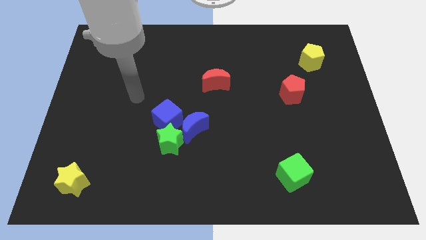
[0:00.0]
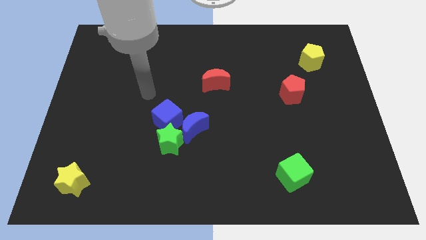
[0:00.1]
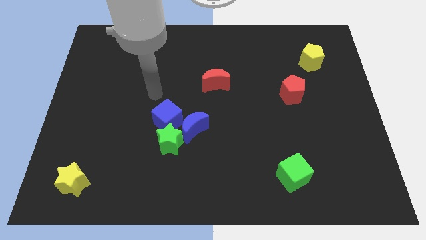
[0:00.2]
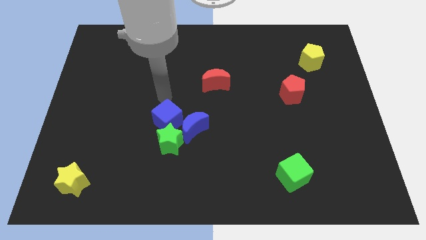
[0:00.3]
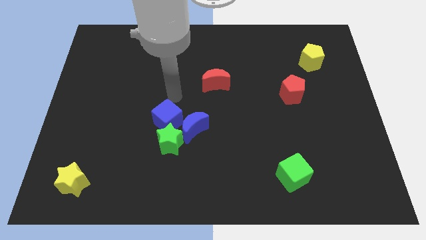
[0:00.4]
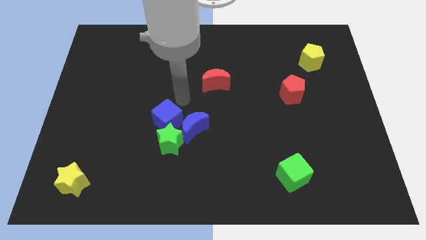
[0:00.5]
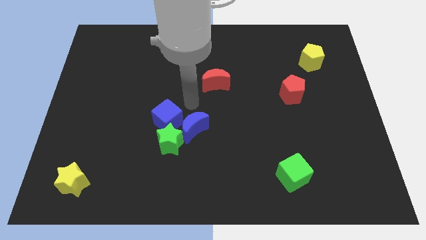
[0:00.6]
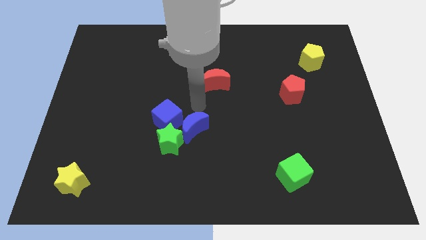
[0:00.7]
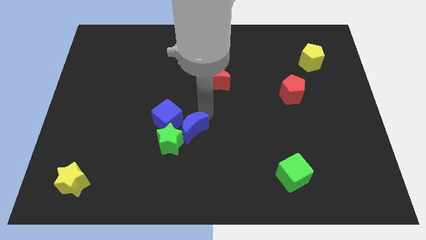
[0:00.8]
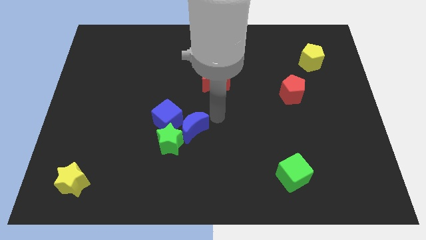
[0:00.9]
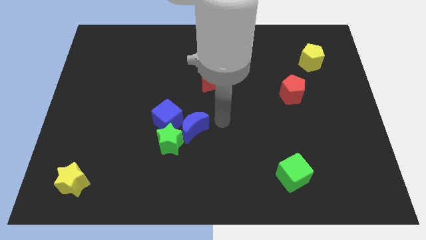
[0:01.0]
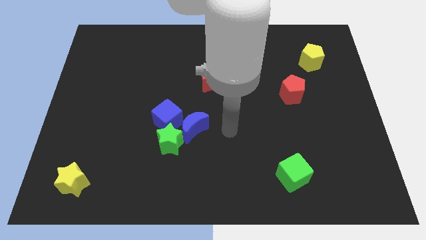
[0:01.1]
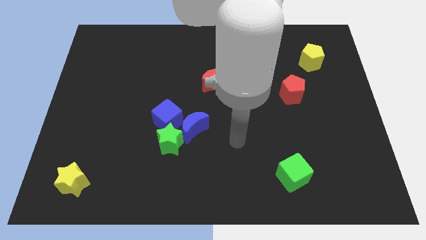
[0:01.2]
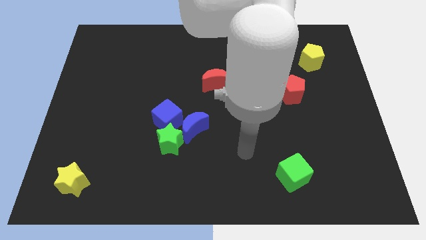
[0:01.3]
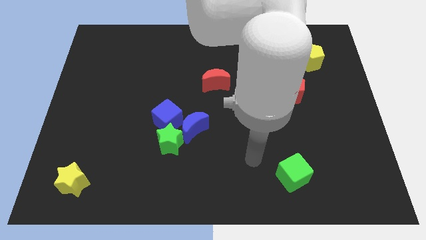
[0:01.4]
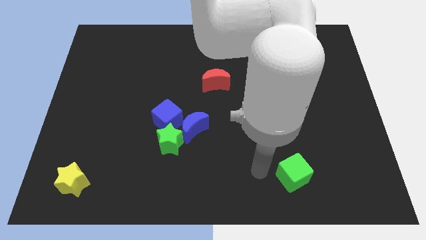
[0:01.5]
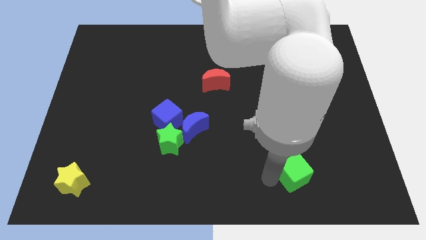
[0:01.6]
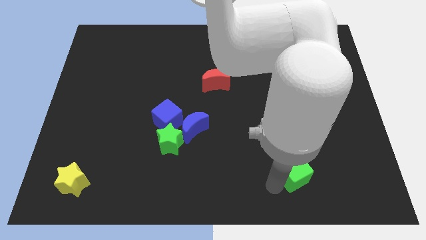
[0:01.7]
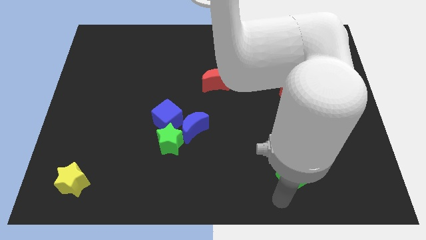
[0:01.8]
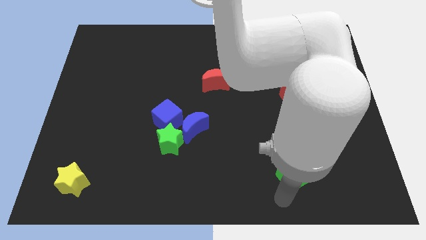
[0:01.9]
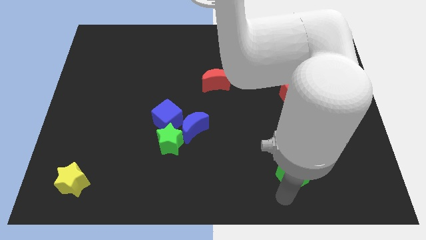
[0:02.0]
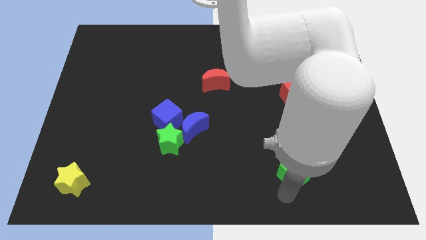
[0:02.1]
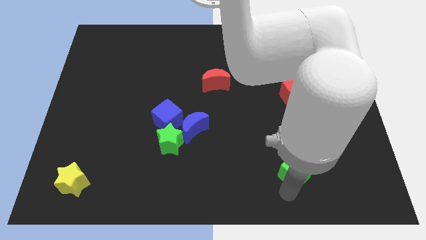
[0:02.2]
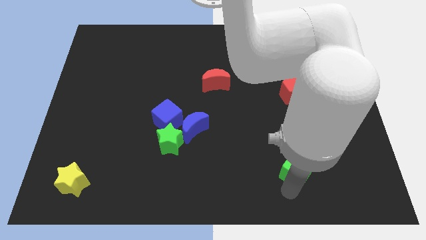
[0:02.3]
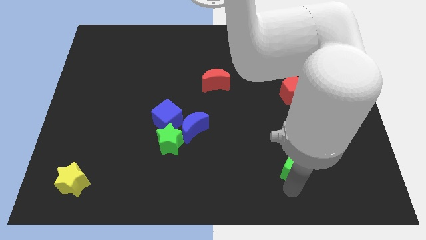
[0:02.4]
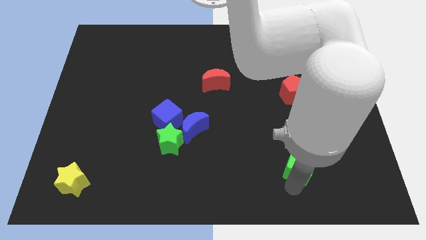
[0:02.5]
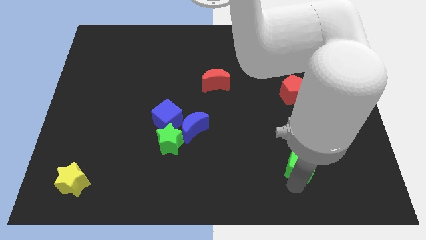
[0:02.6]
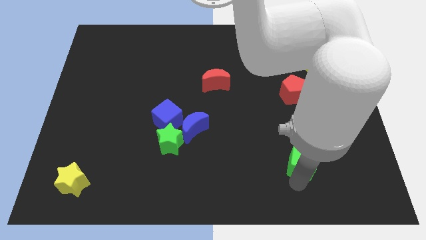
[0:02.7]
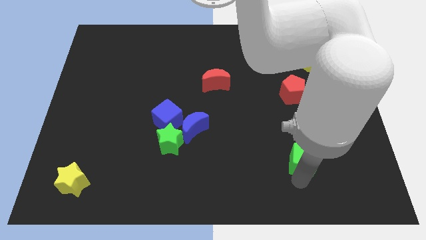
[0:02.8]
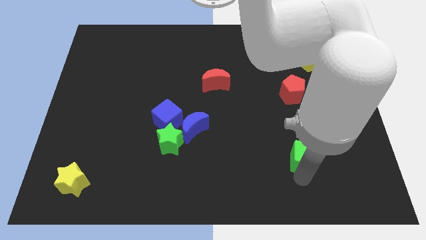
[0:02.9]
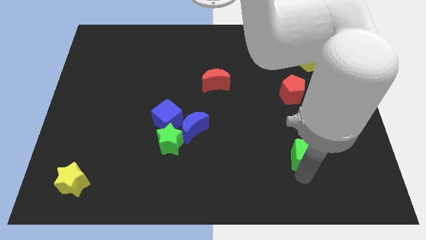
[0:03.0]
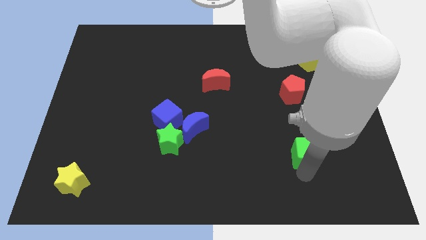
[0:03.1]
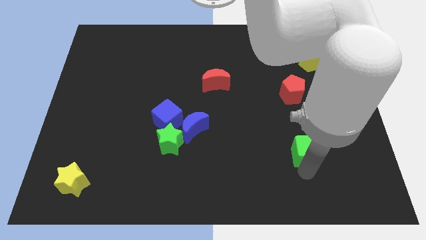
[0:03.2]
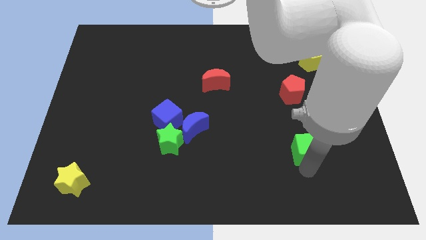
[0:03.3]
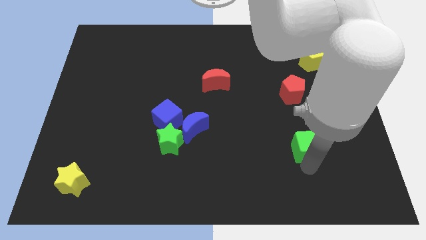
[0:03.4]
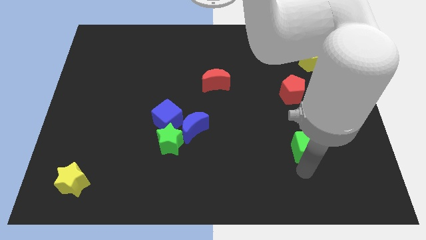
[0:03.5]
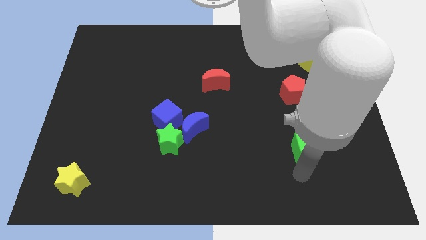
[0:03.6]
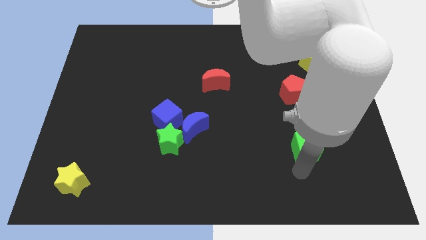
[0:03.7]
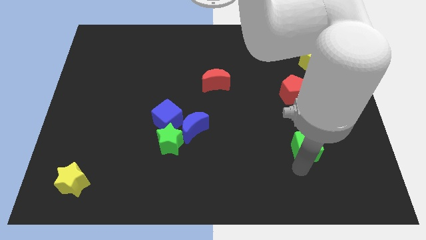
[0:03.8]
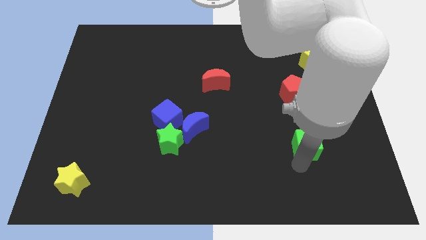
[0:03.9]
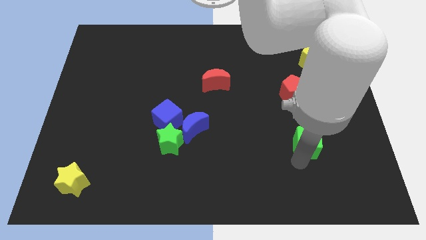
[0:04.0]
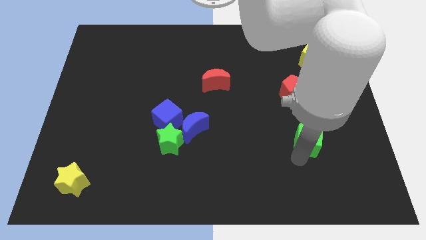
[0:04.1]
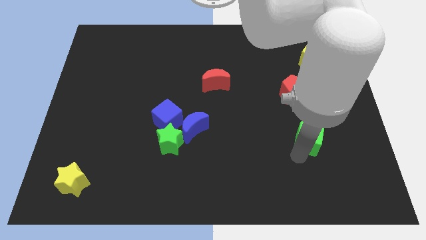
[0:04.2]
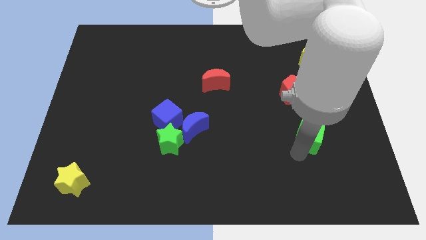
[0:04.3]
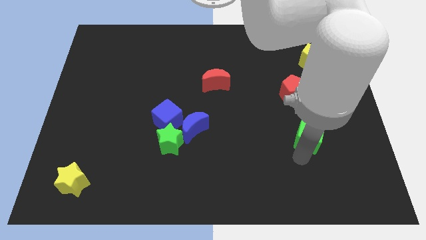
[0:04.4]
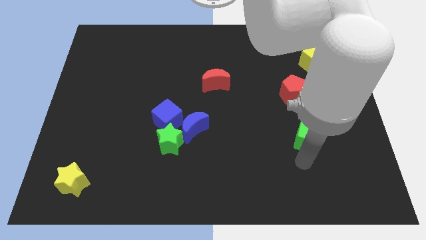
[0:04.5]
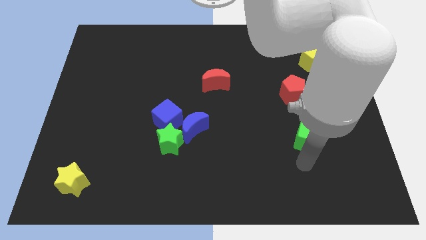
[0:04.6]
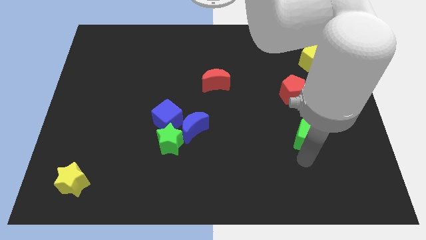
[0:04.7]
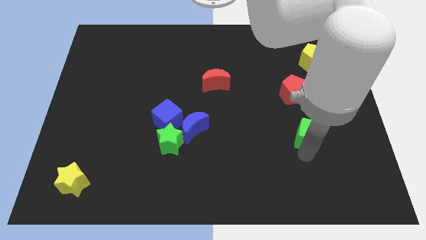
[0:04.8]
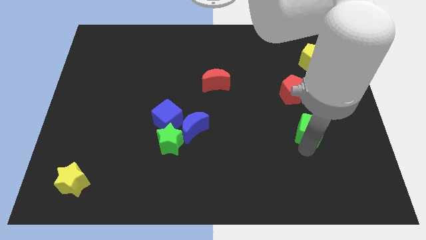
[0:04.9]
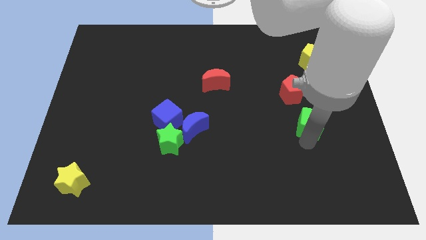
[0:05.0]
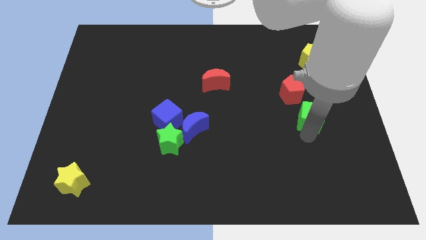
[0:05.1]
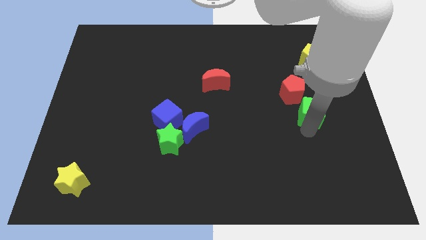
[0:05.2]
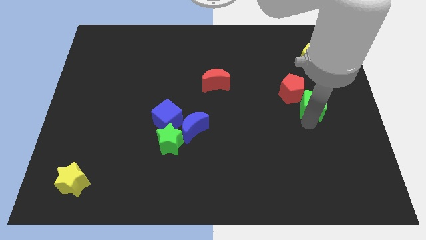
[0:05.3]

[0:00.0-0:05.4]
slide the green cube below the yellow pentagon

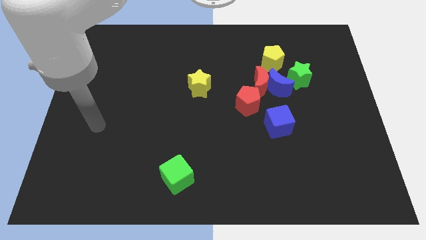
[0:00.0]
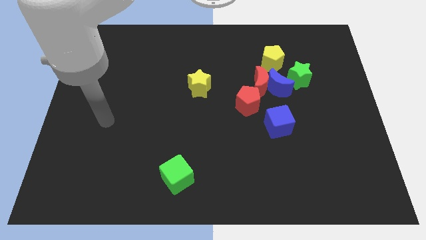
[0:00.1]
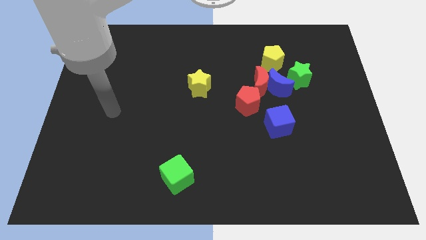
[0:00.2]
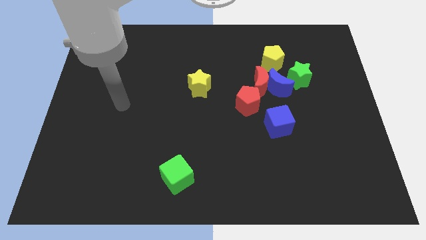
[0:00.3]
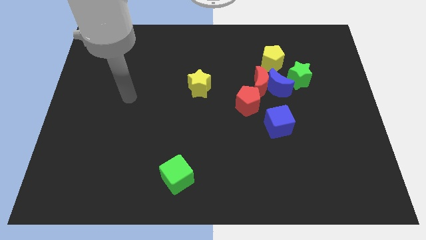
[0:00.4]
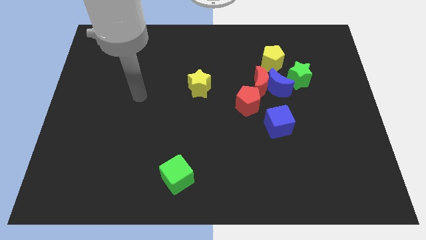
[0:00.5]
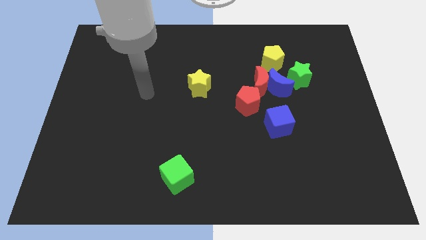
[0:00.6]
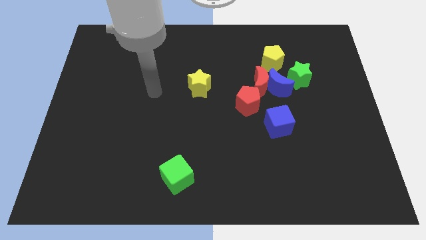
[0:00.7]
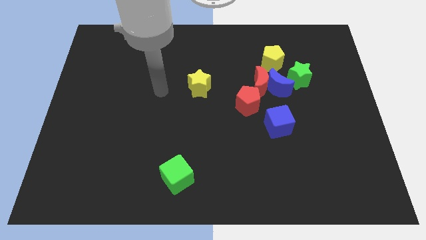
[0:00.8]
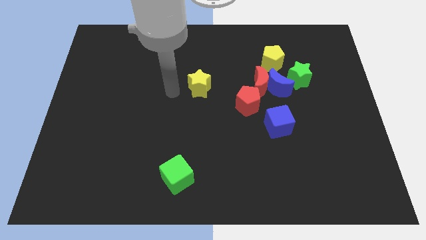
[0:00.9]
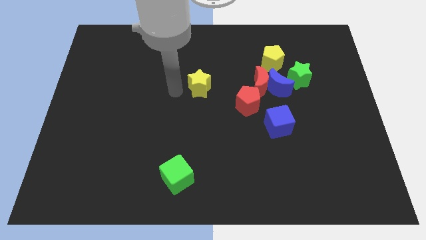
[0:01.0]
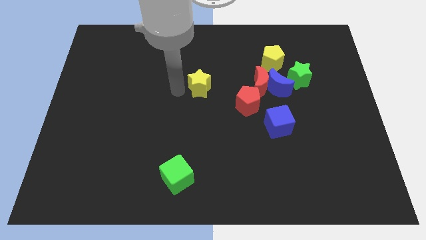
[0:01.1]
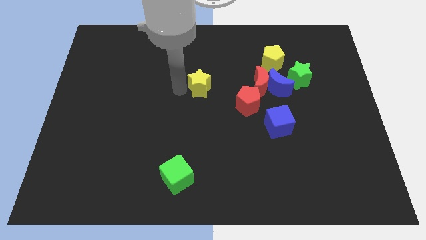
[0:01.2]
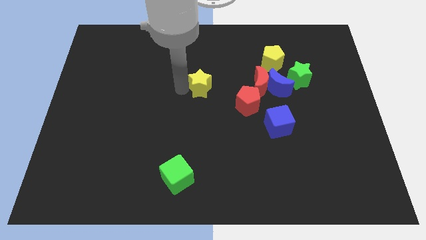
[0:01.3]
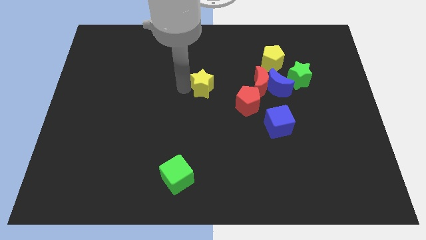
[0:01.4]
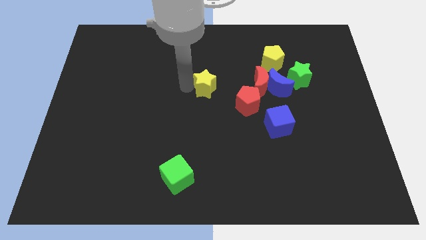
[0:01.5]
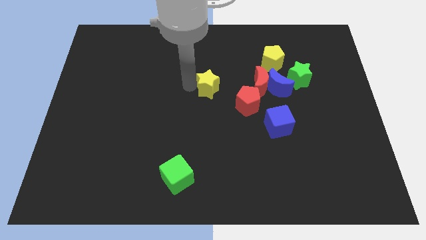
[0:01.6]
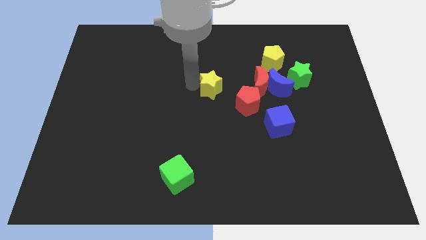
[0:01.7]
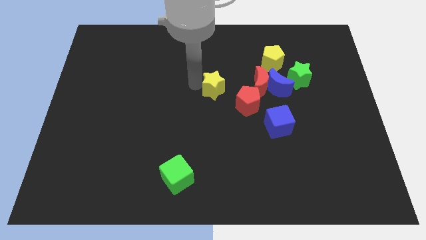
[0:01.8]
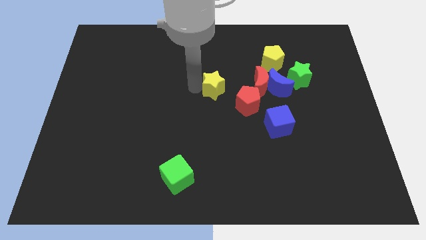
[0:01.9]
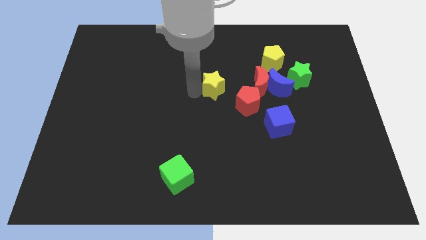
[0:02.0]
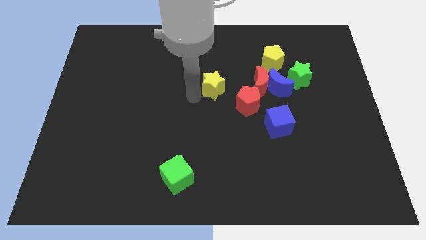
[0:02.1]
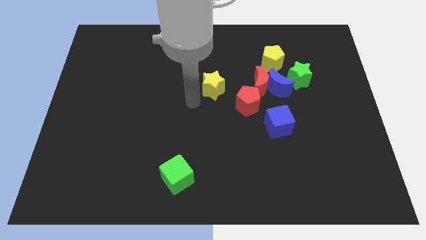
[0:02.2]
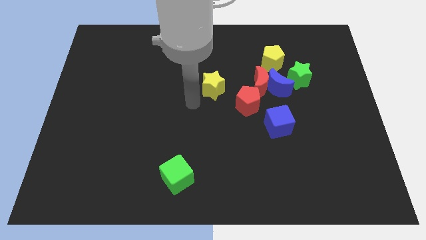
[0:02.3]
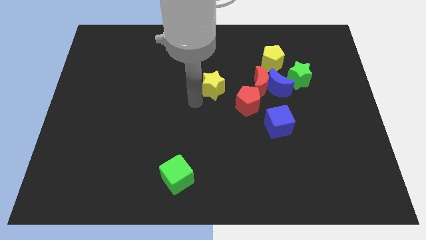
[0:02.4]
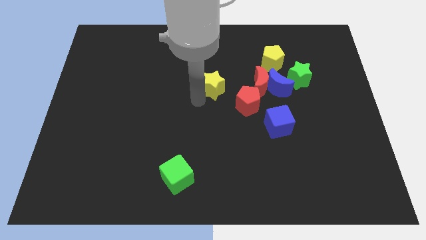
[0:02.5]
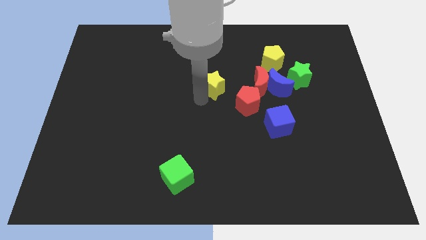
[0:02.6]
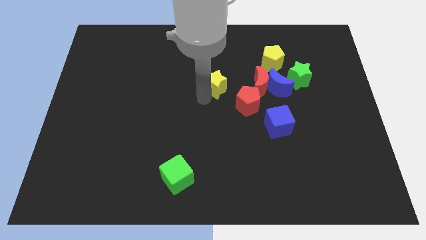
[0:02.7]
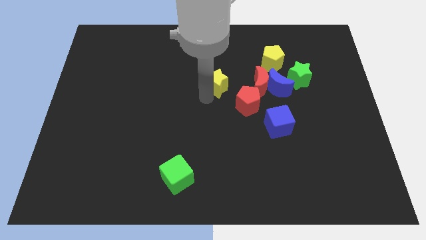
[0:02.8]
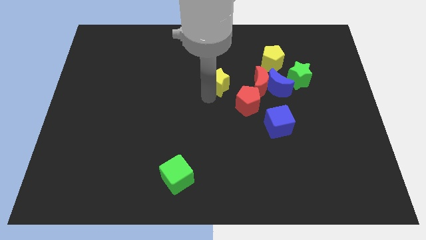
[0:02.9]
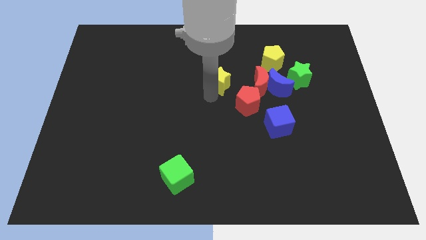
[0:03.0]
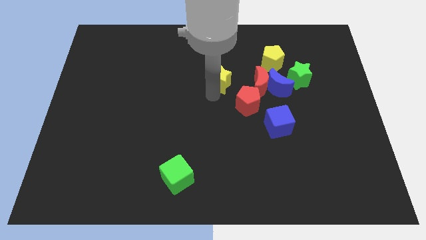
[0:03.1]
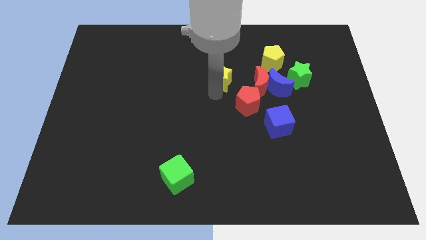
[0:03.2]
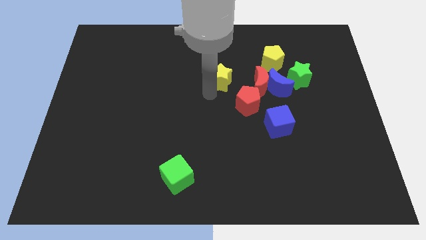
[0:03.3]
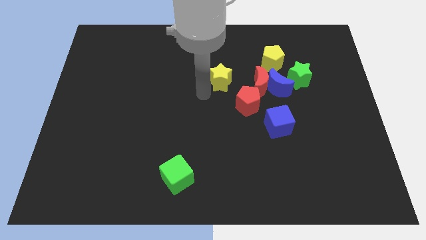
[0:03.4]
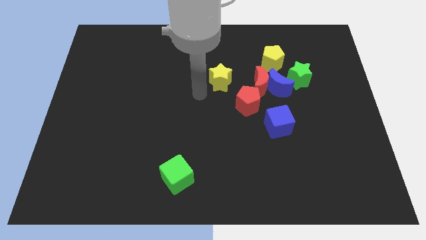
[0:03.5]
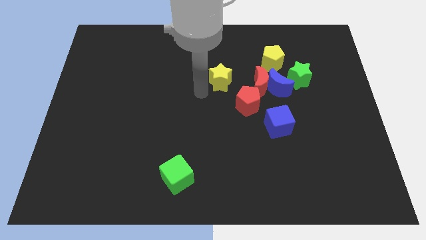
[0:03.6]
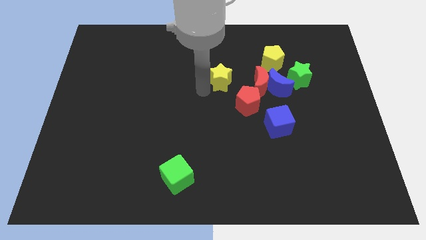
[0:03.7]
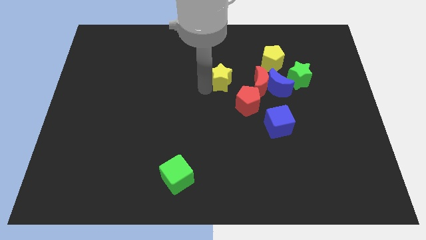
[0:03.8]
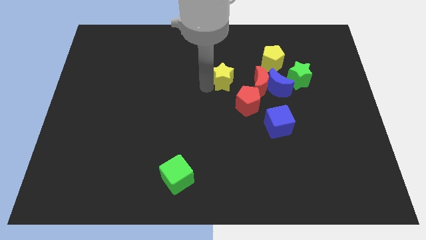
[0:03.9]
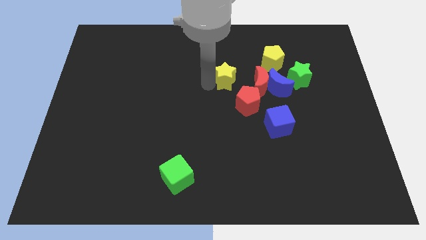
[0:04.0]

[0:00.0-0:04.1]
slide the yellow star to the top left of the red moon
